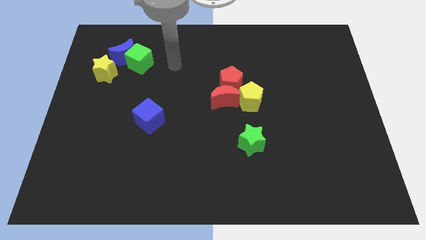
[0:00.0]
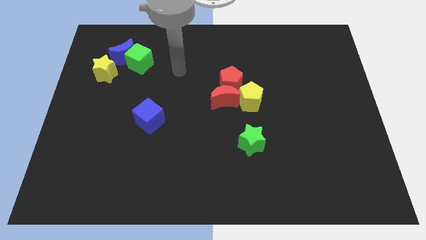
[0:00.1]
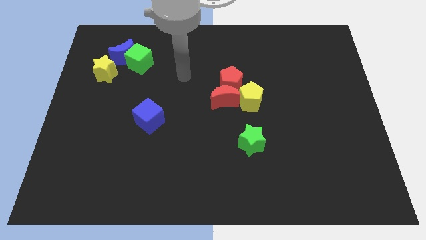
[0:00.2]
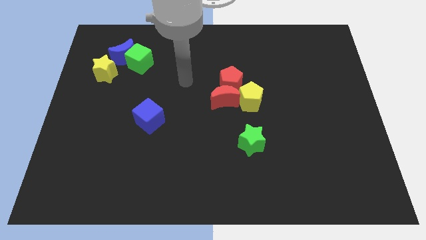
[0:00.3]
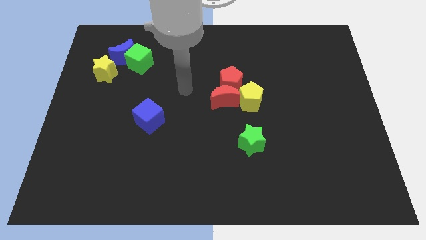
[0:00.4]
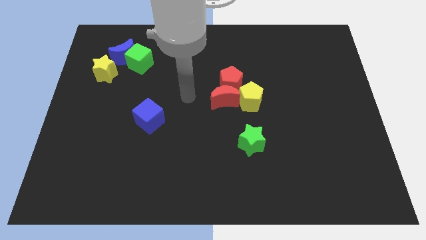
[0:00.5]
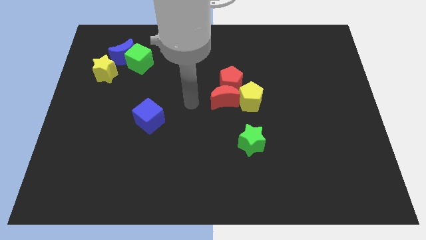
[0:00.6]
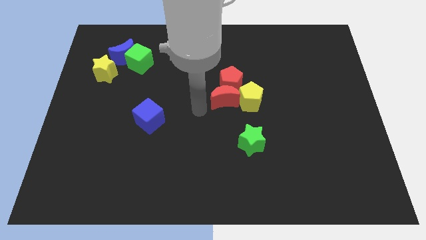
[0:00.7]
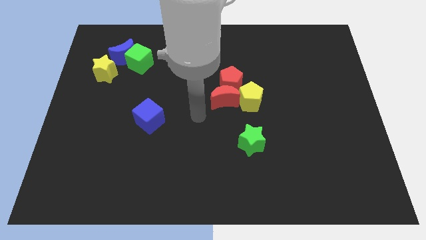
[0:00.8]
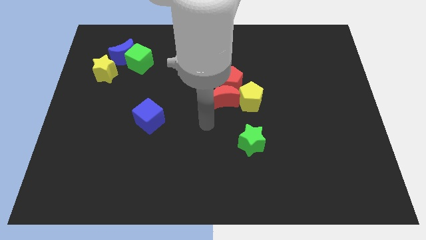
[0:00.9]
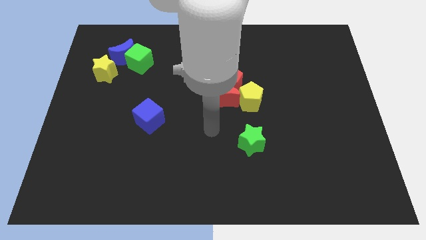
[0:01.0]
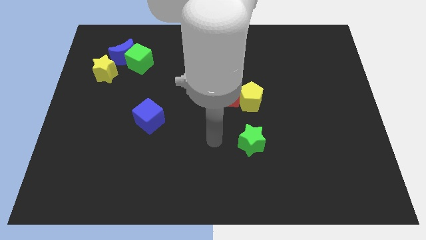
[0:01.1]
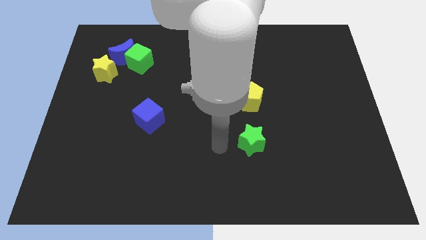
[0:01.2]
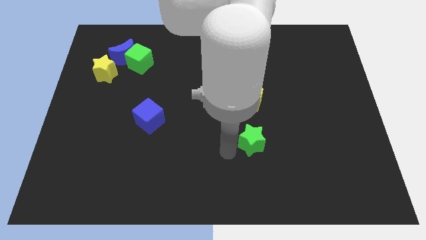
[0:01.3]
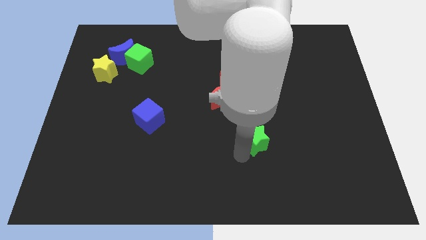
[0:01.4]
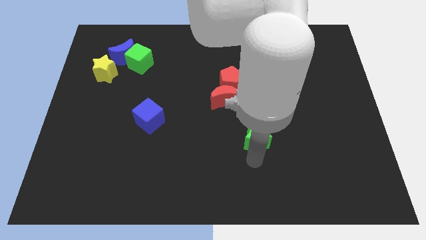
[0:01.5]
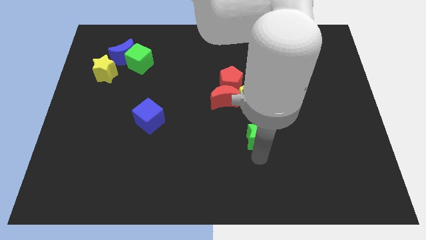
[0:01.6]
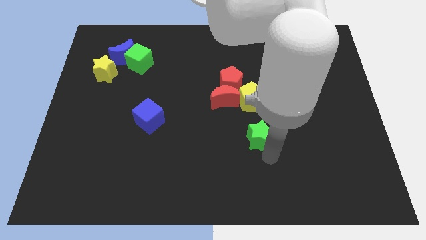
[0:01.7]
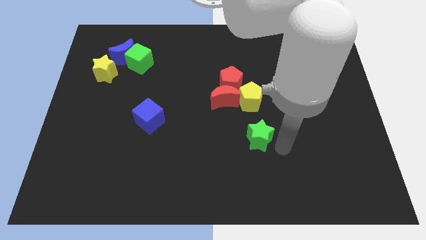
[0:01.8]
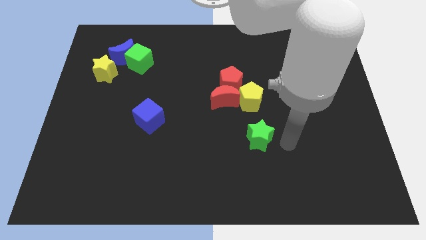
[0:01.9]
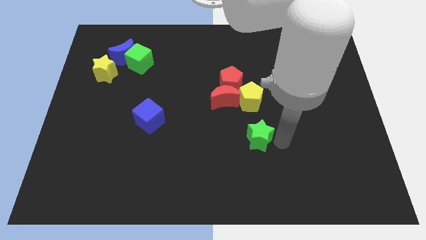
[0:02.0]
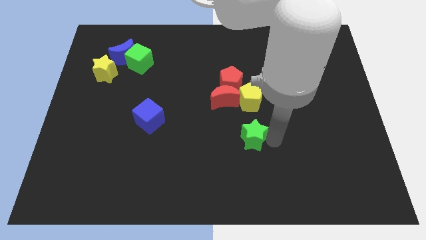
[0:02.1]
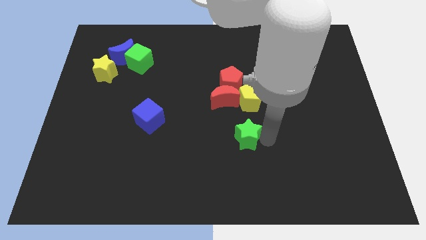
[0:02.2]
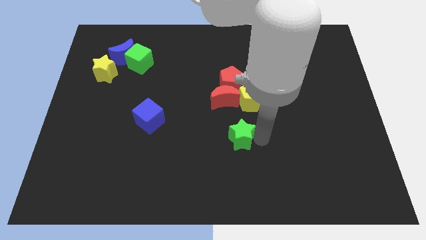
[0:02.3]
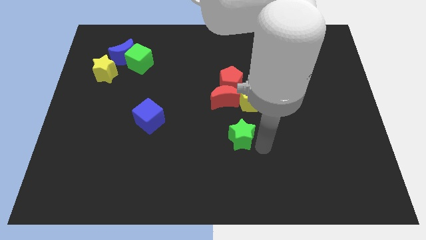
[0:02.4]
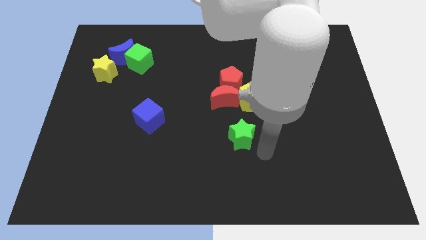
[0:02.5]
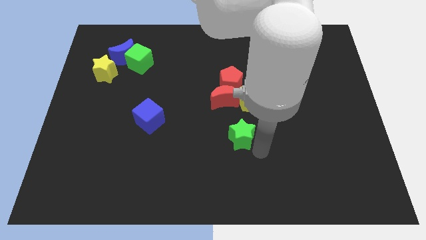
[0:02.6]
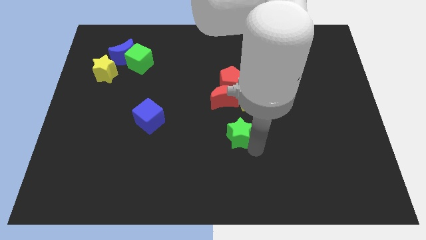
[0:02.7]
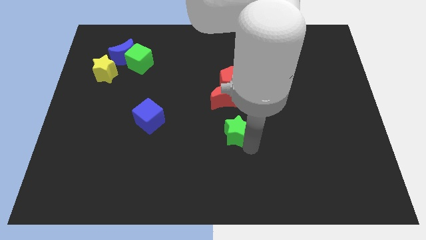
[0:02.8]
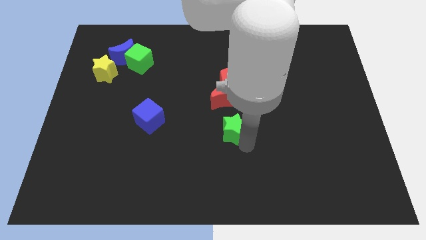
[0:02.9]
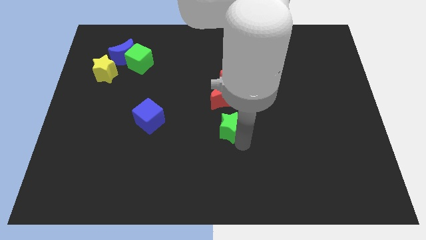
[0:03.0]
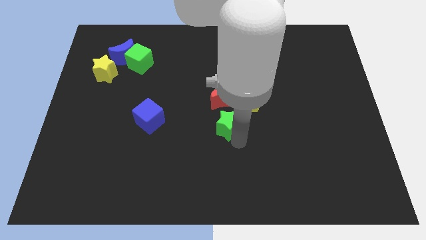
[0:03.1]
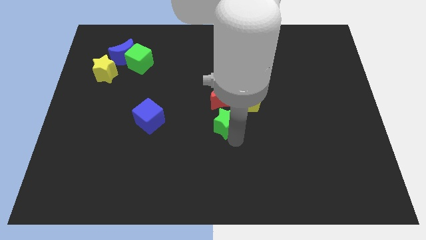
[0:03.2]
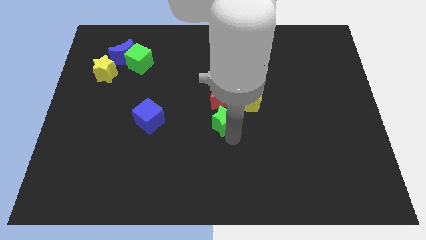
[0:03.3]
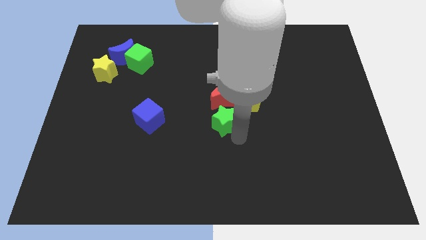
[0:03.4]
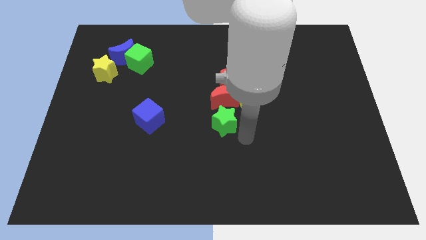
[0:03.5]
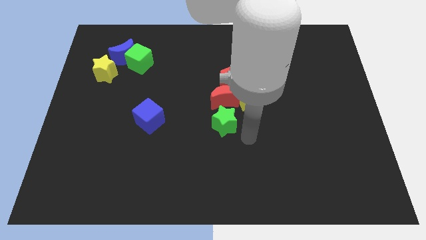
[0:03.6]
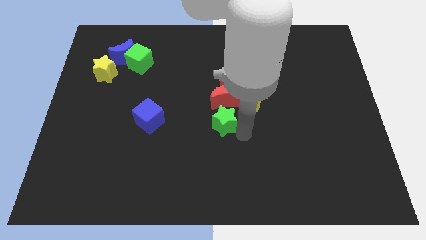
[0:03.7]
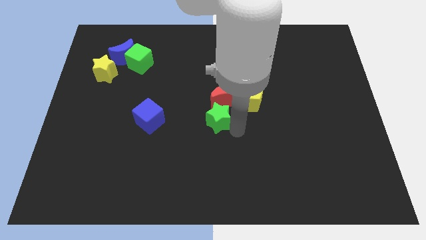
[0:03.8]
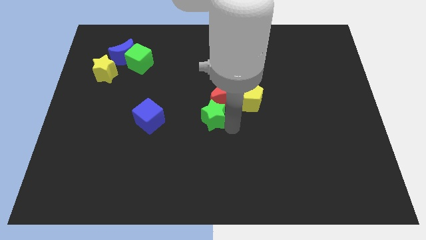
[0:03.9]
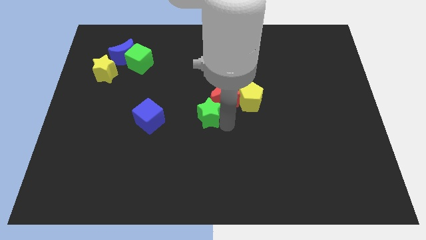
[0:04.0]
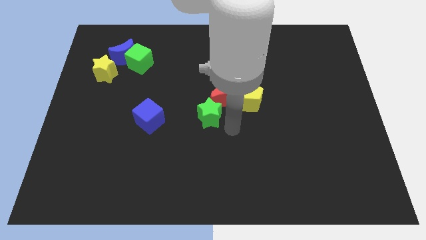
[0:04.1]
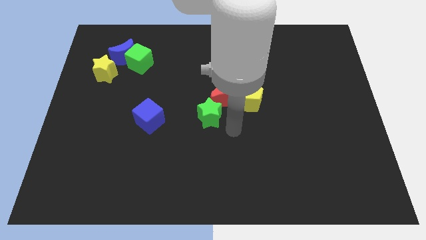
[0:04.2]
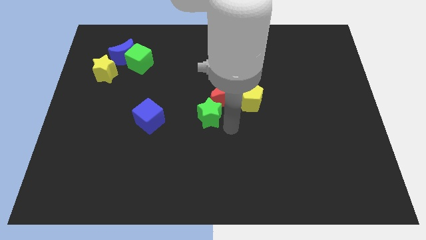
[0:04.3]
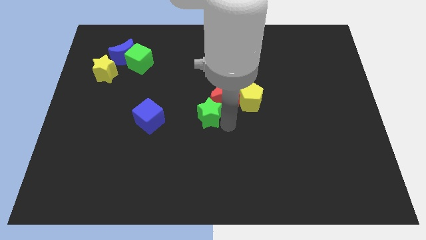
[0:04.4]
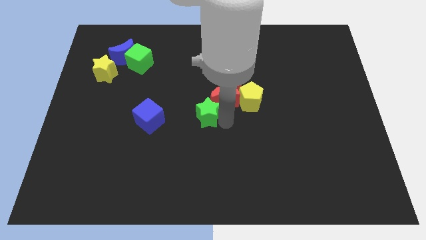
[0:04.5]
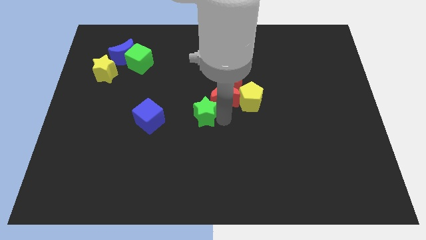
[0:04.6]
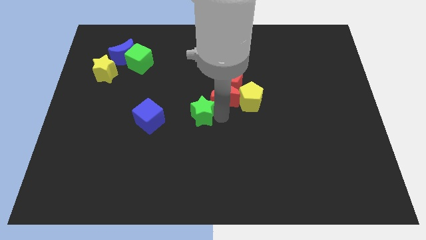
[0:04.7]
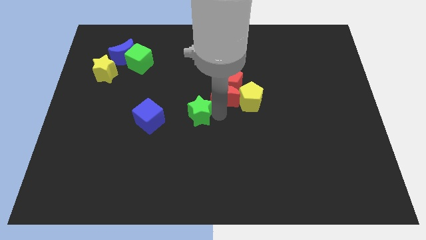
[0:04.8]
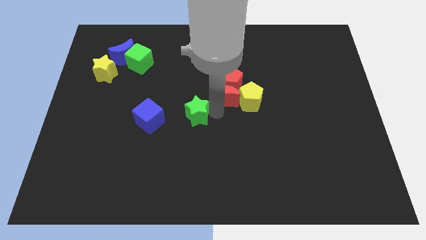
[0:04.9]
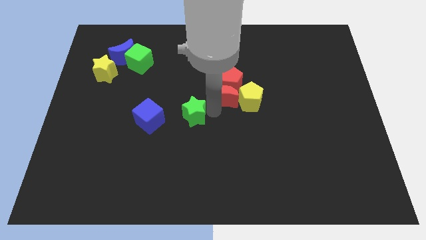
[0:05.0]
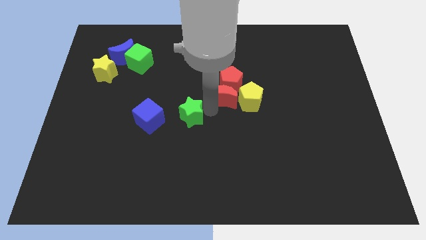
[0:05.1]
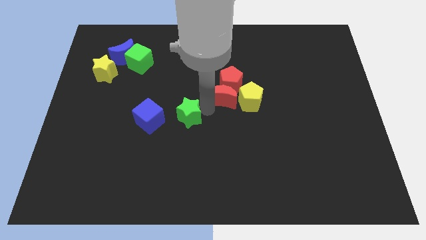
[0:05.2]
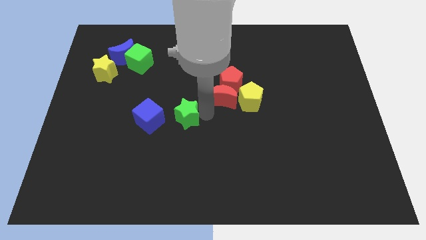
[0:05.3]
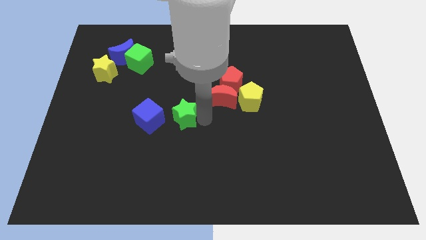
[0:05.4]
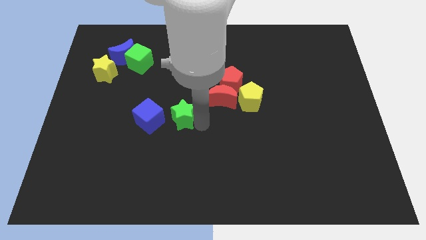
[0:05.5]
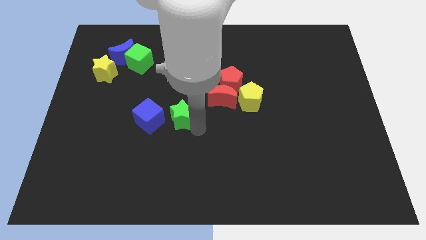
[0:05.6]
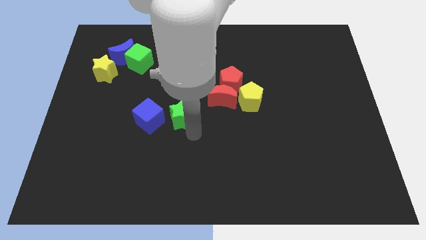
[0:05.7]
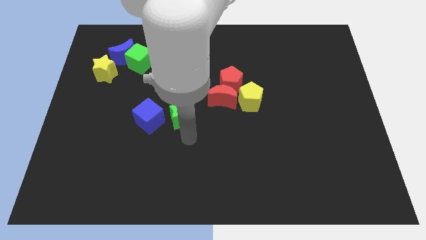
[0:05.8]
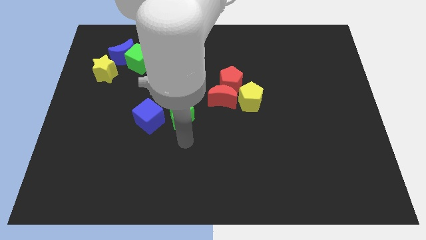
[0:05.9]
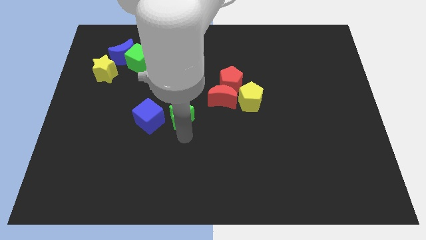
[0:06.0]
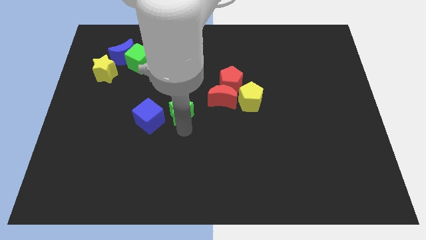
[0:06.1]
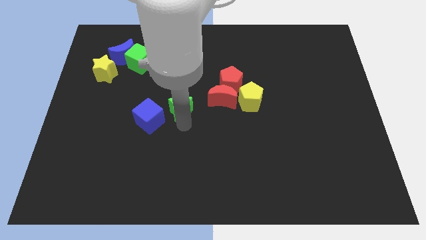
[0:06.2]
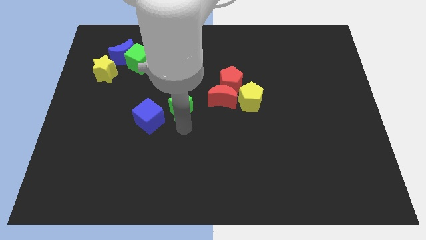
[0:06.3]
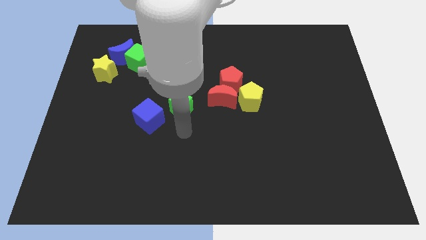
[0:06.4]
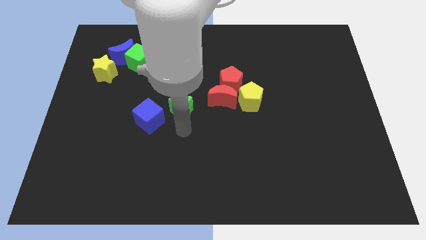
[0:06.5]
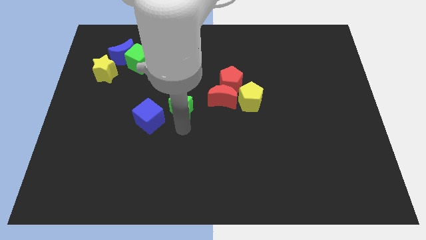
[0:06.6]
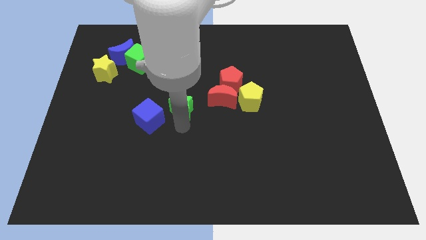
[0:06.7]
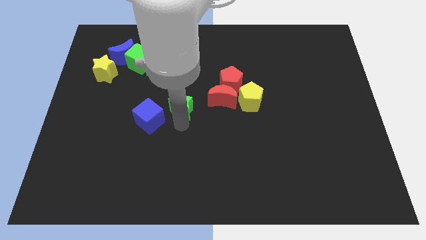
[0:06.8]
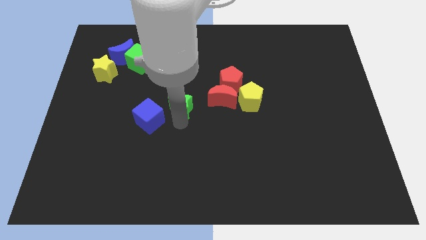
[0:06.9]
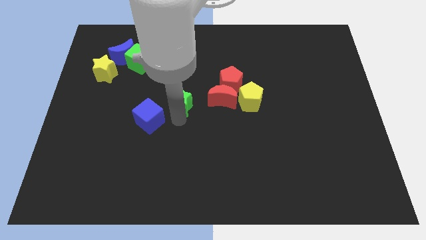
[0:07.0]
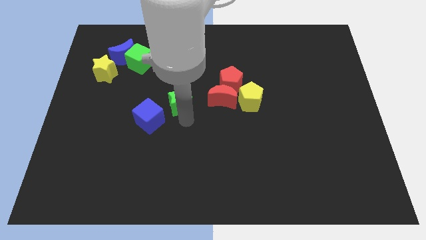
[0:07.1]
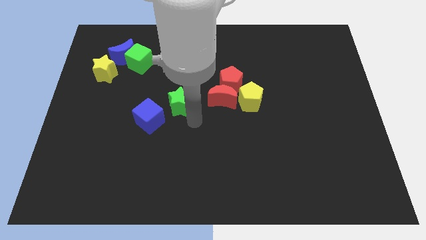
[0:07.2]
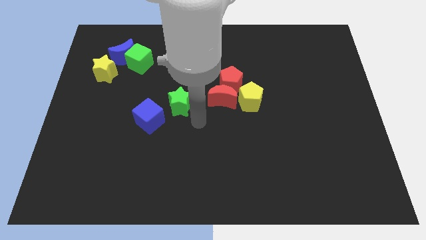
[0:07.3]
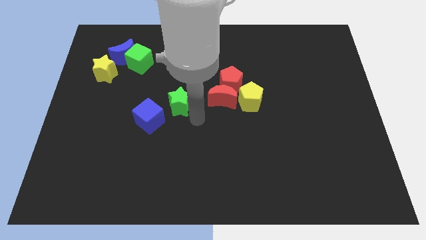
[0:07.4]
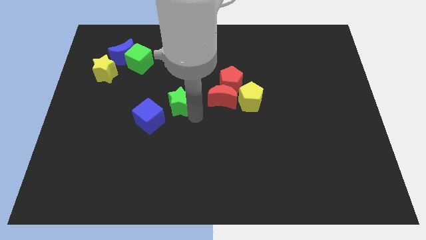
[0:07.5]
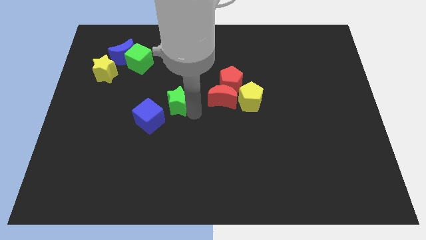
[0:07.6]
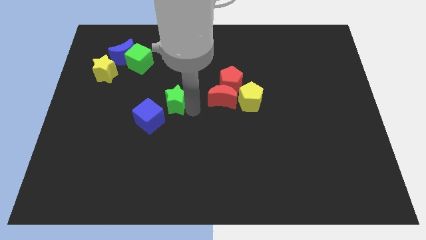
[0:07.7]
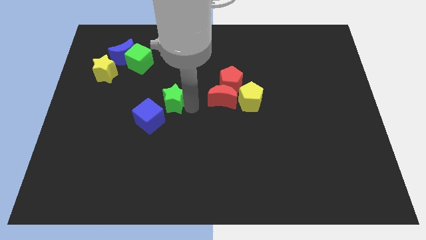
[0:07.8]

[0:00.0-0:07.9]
move the green star diagonally upwards and left
